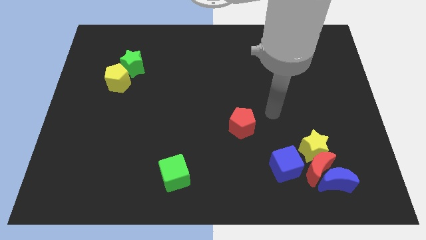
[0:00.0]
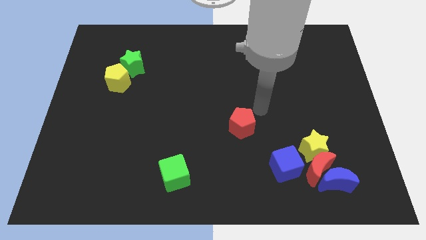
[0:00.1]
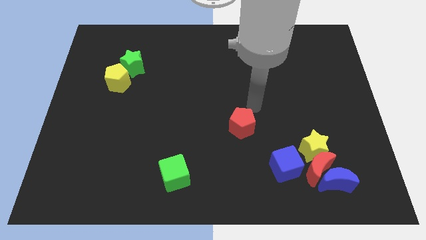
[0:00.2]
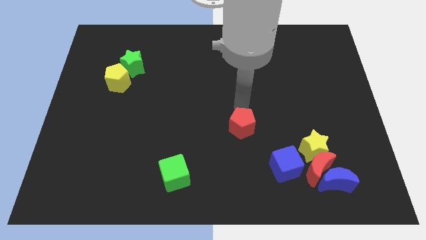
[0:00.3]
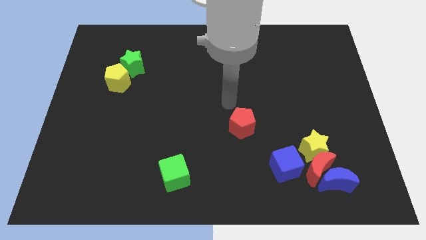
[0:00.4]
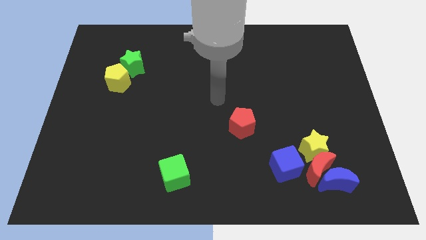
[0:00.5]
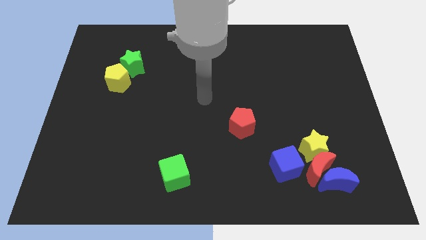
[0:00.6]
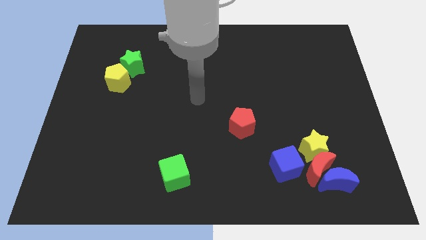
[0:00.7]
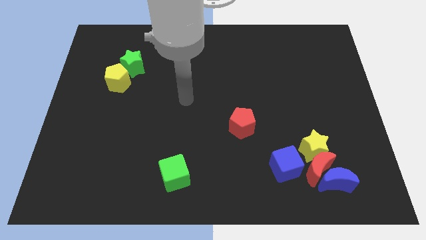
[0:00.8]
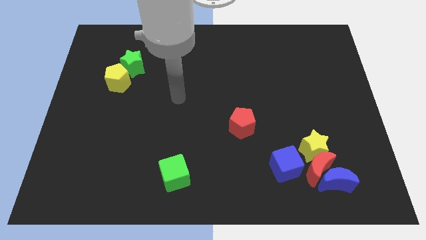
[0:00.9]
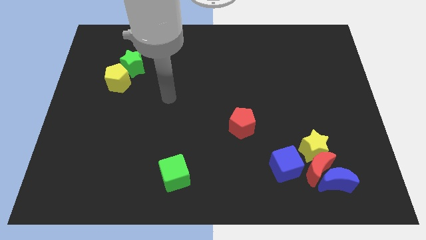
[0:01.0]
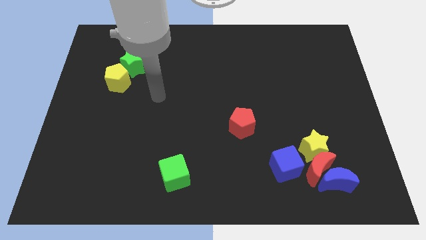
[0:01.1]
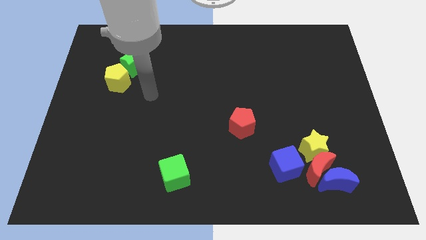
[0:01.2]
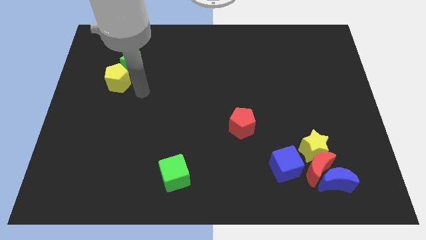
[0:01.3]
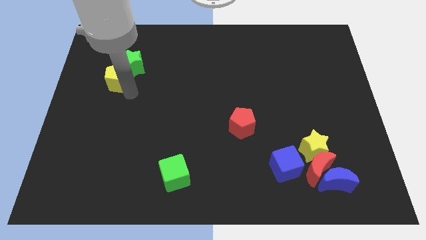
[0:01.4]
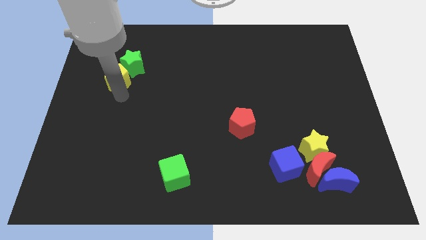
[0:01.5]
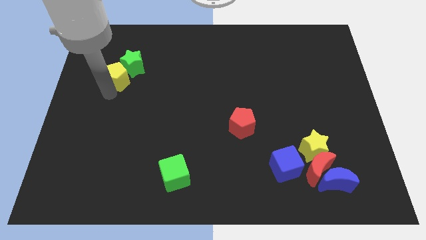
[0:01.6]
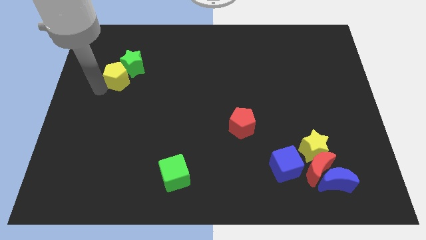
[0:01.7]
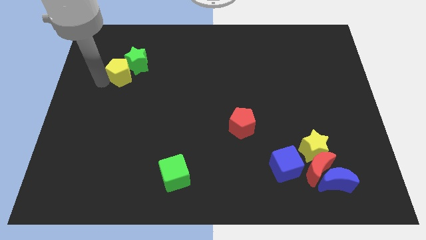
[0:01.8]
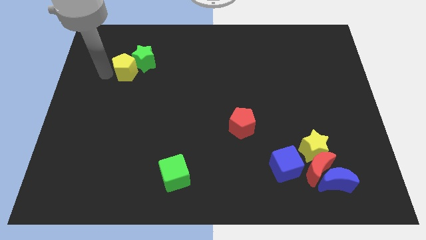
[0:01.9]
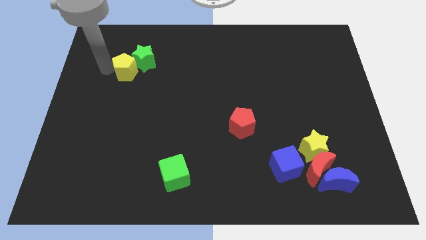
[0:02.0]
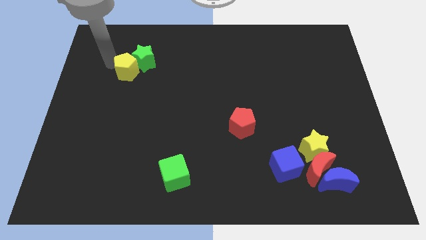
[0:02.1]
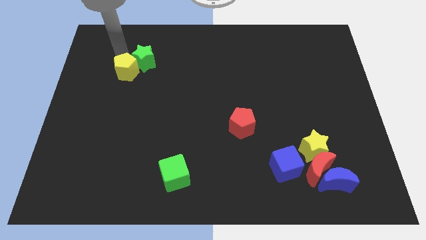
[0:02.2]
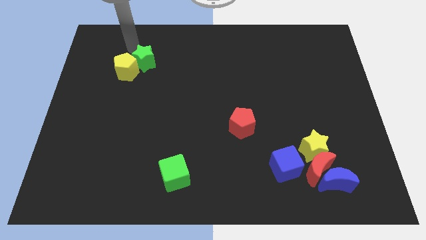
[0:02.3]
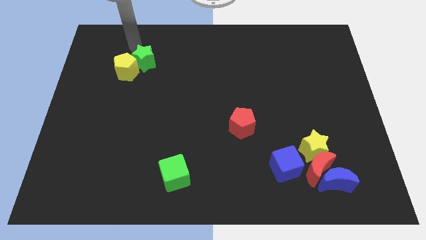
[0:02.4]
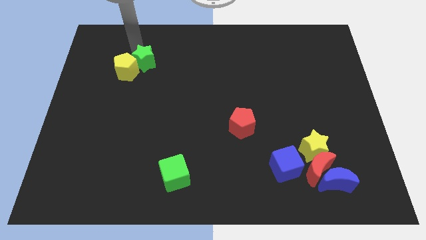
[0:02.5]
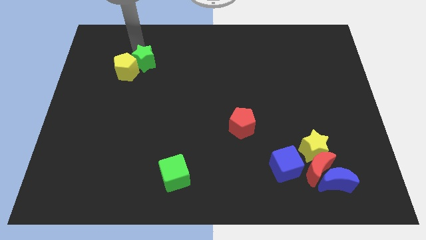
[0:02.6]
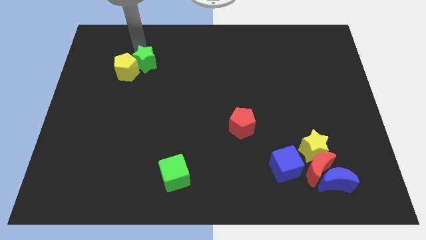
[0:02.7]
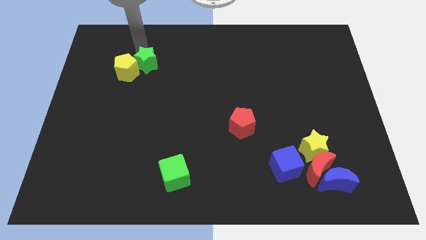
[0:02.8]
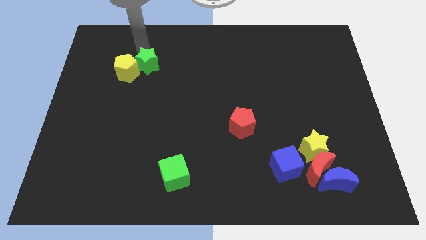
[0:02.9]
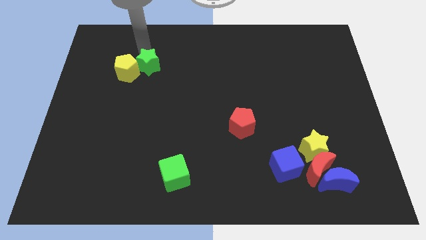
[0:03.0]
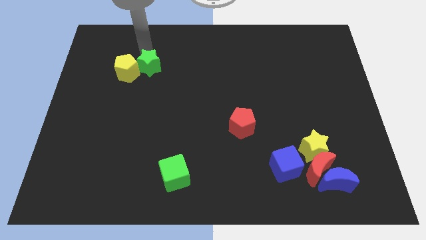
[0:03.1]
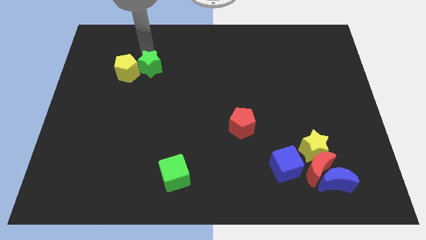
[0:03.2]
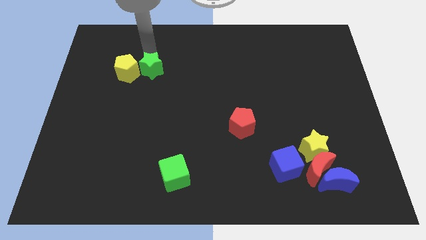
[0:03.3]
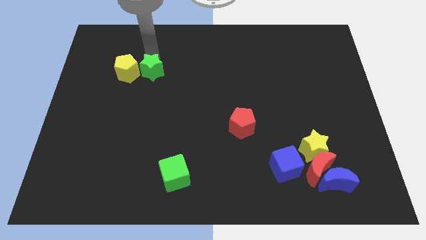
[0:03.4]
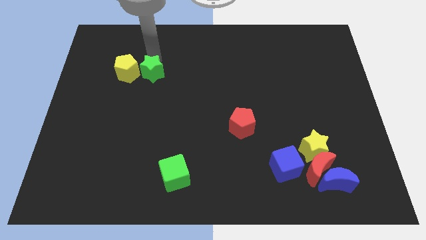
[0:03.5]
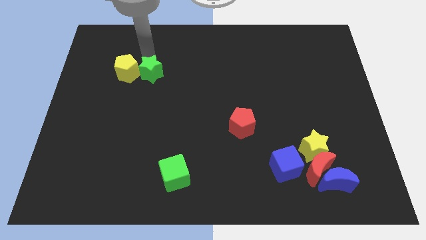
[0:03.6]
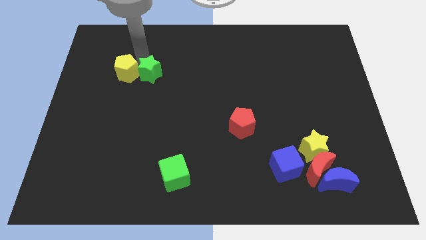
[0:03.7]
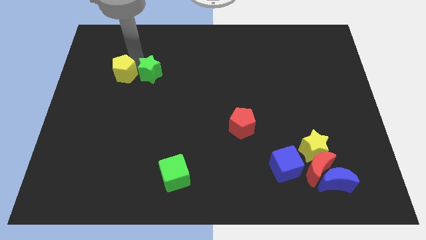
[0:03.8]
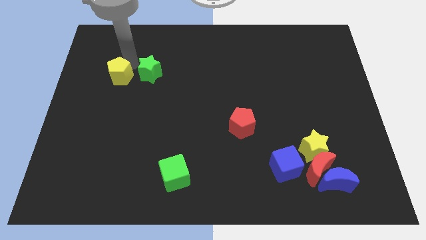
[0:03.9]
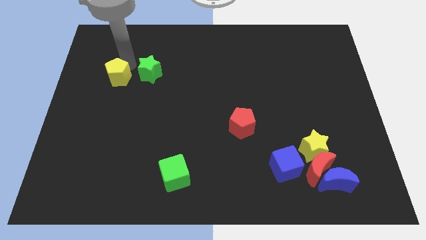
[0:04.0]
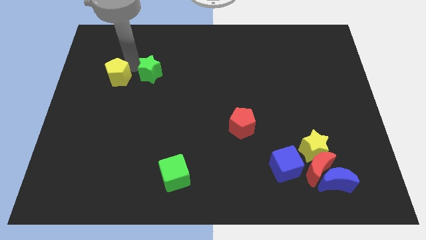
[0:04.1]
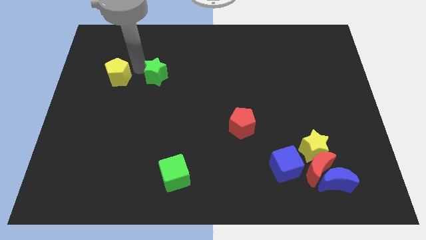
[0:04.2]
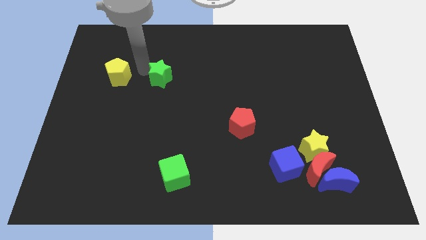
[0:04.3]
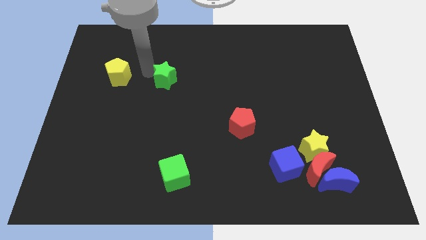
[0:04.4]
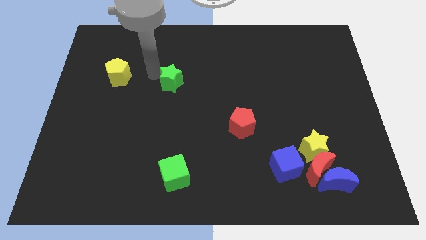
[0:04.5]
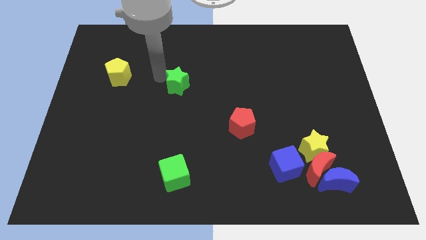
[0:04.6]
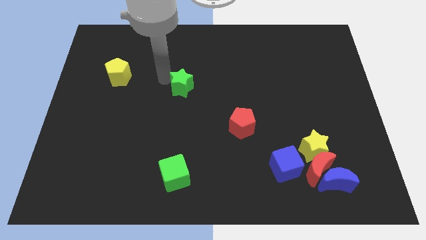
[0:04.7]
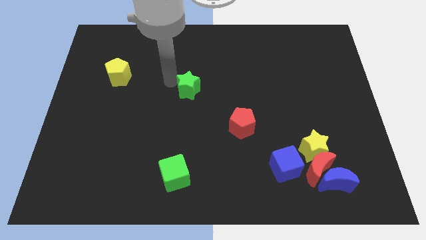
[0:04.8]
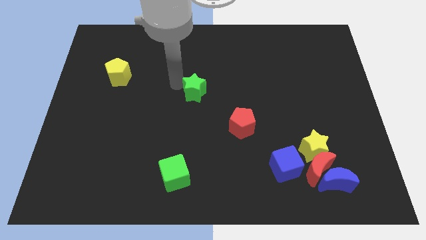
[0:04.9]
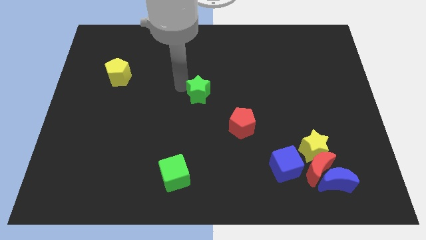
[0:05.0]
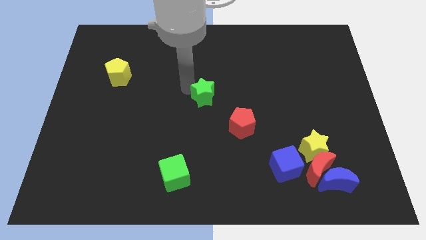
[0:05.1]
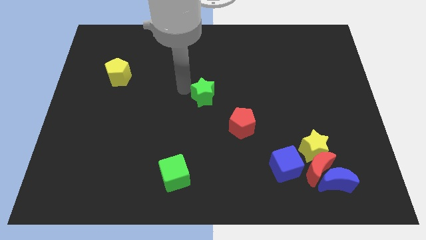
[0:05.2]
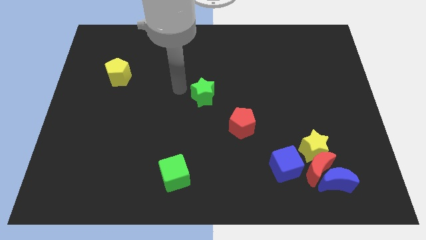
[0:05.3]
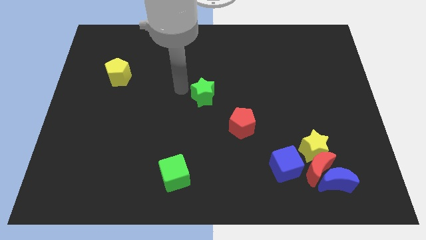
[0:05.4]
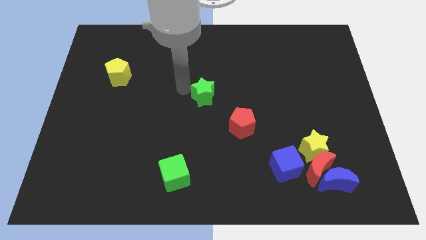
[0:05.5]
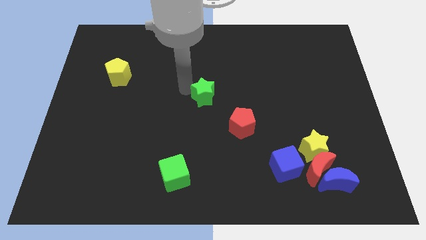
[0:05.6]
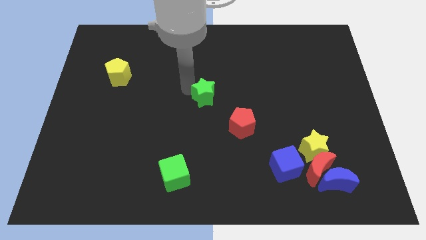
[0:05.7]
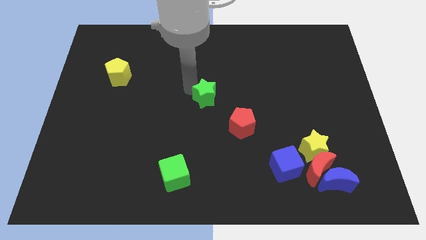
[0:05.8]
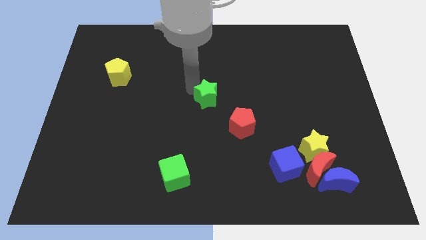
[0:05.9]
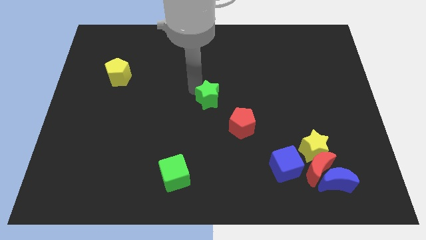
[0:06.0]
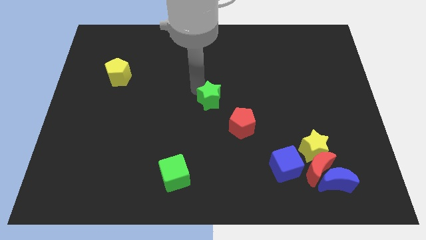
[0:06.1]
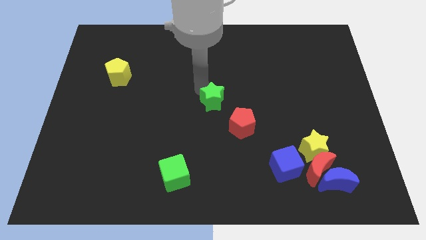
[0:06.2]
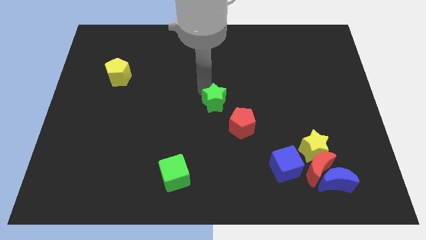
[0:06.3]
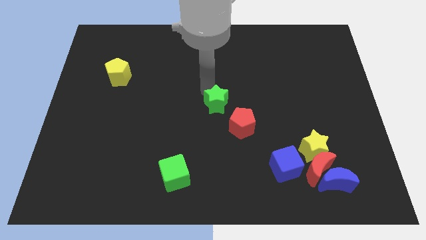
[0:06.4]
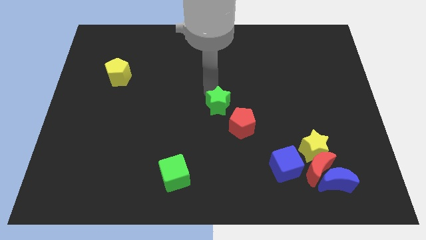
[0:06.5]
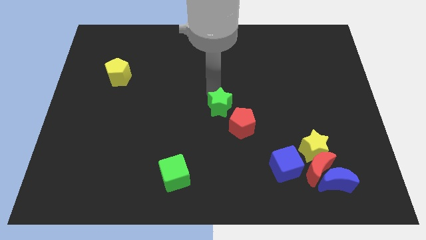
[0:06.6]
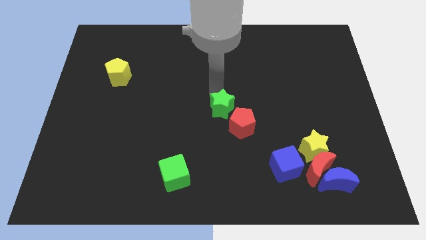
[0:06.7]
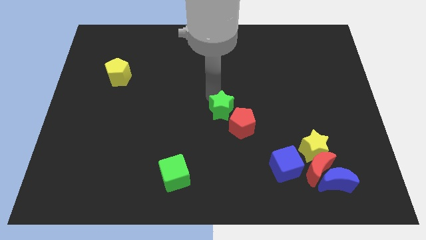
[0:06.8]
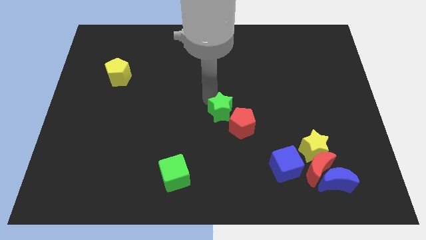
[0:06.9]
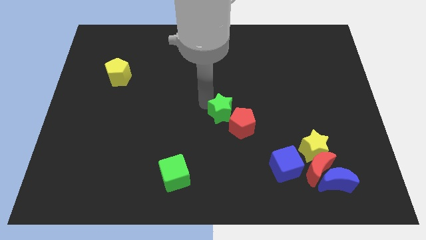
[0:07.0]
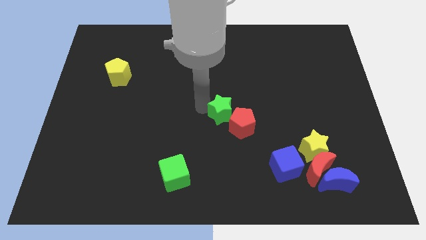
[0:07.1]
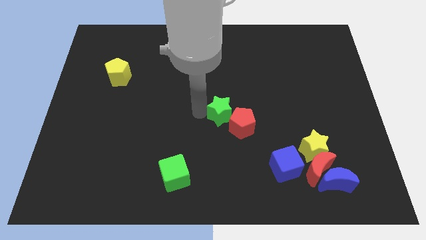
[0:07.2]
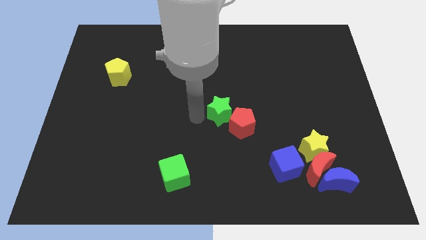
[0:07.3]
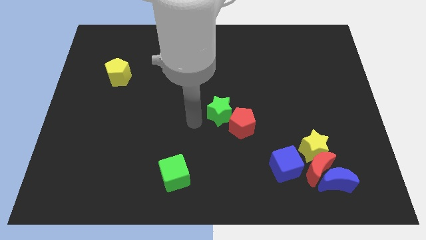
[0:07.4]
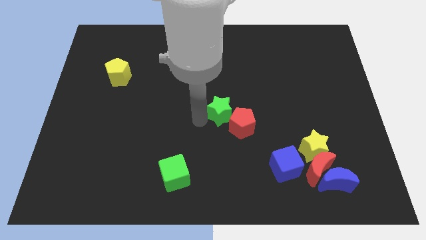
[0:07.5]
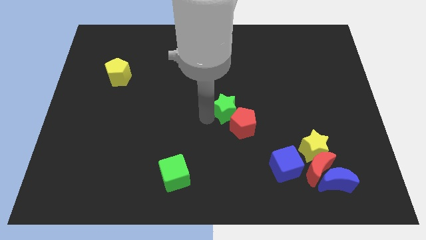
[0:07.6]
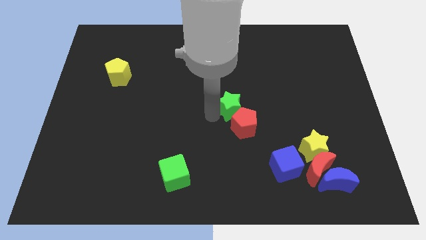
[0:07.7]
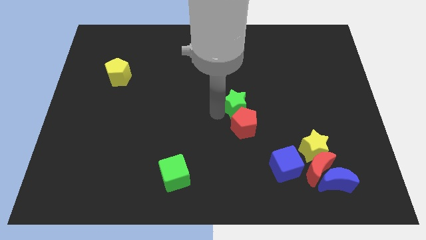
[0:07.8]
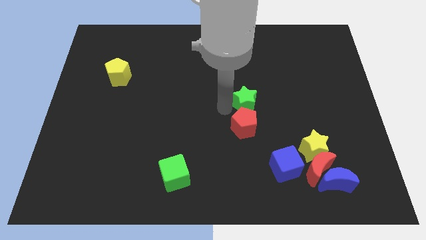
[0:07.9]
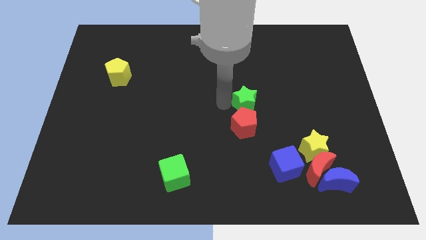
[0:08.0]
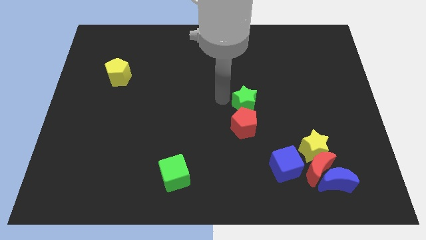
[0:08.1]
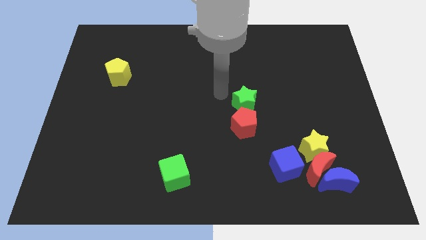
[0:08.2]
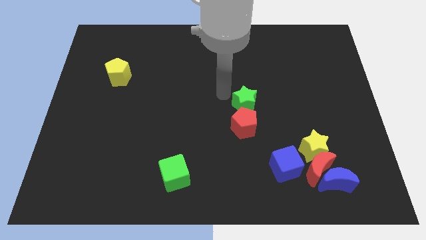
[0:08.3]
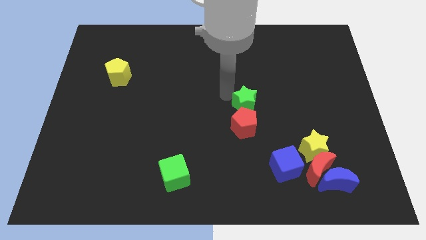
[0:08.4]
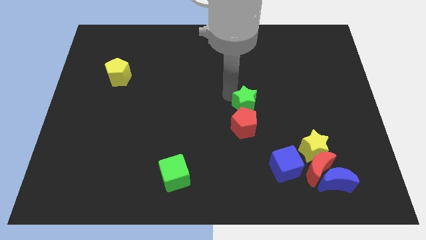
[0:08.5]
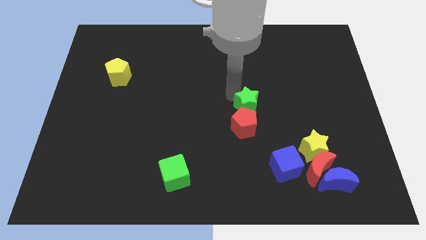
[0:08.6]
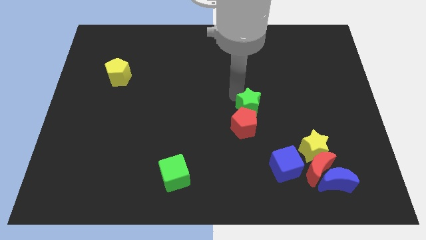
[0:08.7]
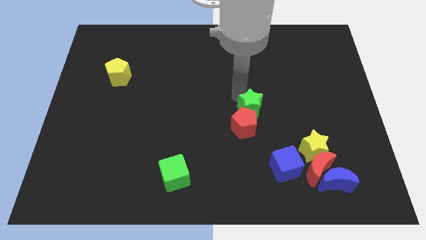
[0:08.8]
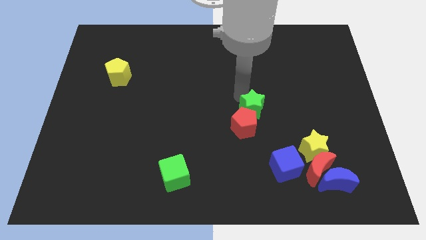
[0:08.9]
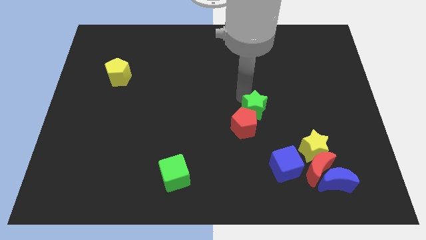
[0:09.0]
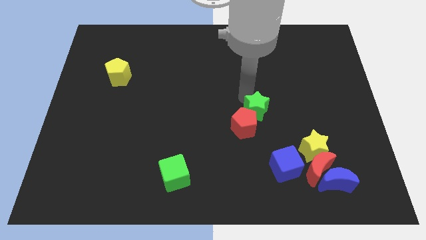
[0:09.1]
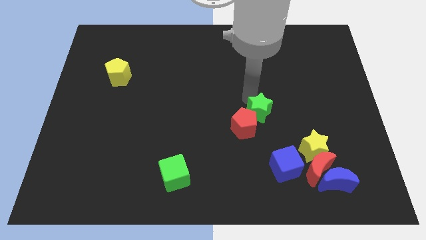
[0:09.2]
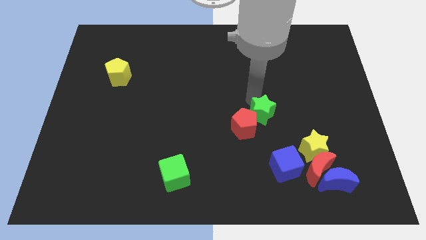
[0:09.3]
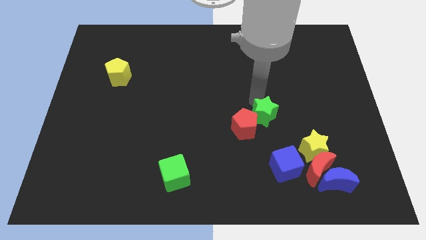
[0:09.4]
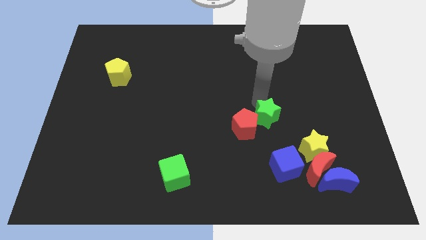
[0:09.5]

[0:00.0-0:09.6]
slide the green star to the top left side of the yellow star
